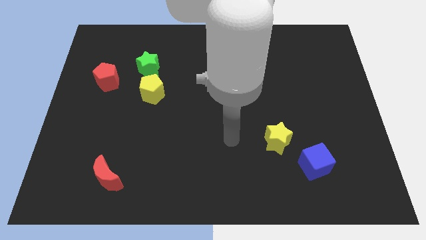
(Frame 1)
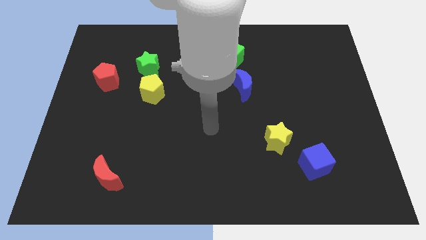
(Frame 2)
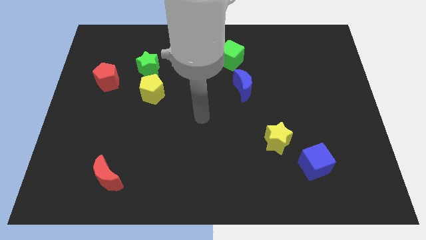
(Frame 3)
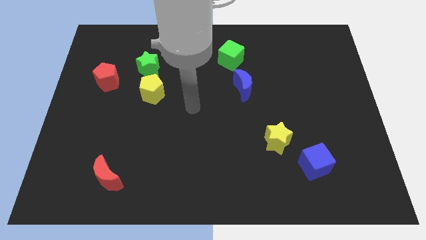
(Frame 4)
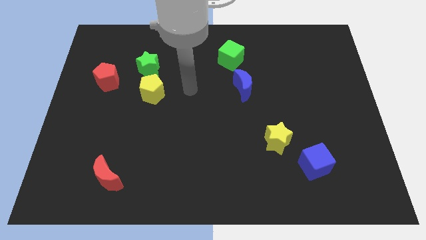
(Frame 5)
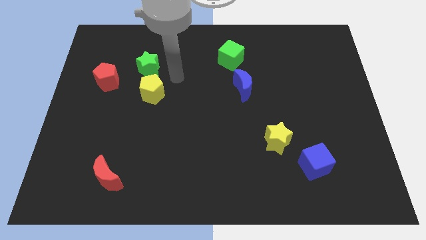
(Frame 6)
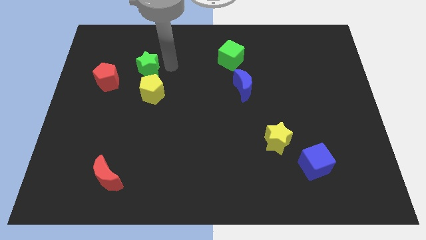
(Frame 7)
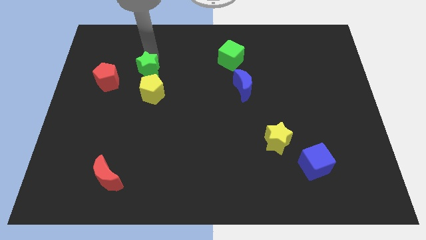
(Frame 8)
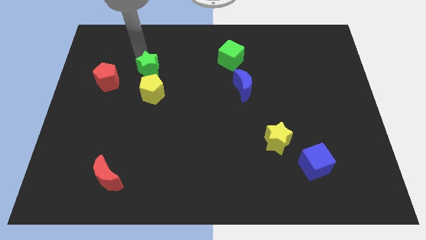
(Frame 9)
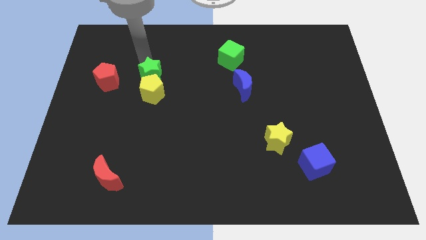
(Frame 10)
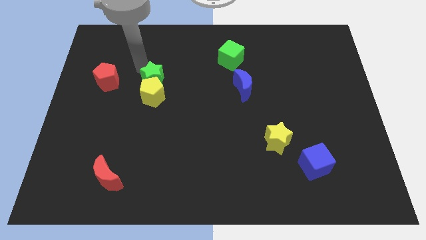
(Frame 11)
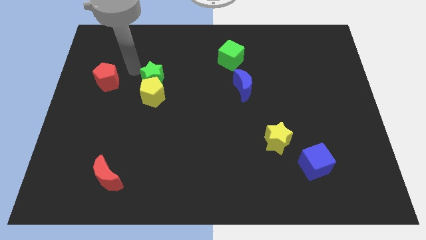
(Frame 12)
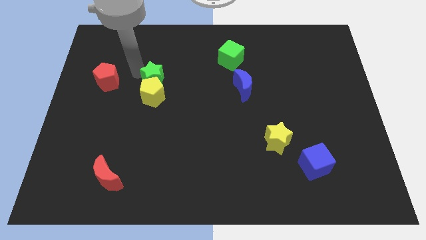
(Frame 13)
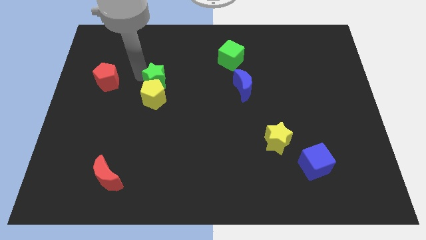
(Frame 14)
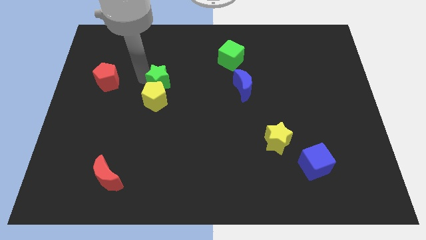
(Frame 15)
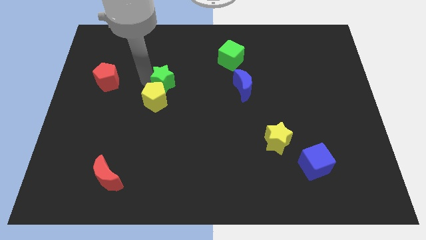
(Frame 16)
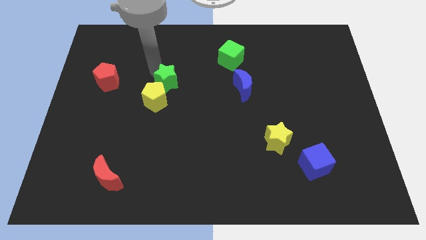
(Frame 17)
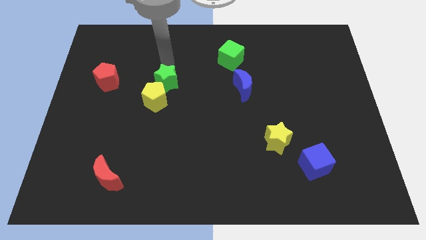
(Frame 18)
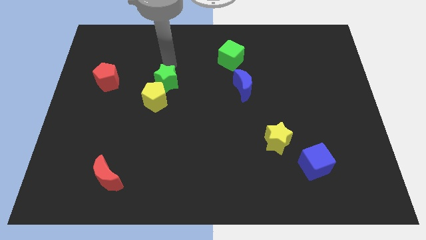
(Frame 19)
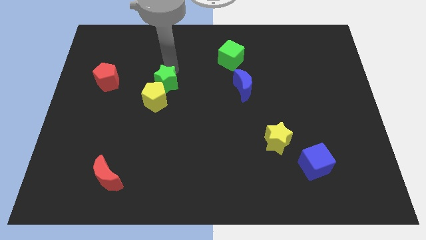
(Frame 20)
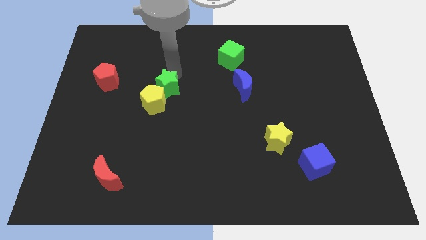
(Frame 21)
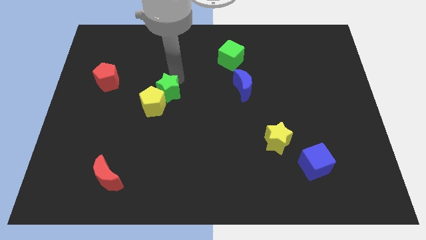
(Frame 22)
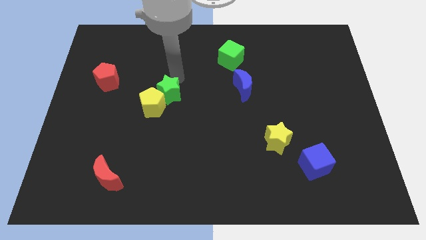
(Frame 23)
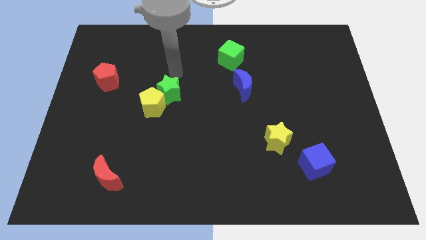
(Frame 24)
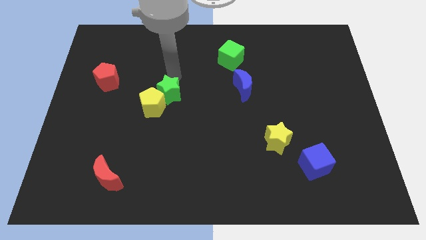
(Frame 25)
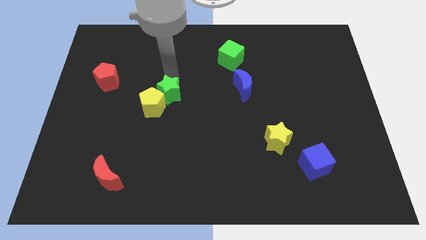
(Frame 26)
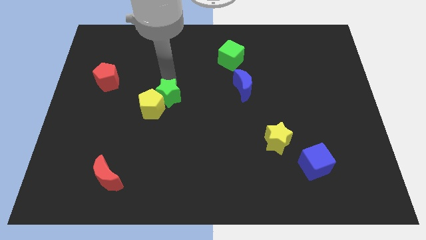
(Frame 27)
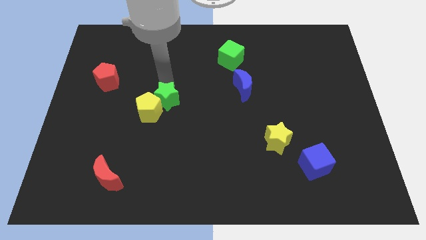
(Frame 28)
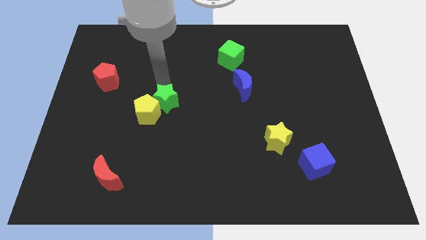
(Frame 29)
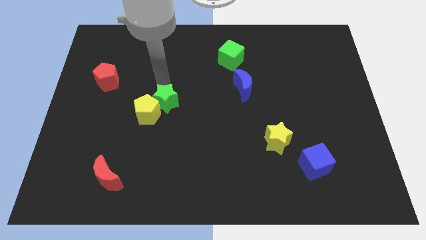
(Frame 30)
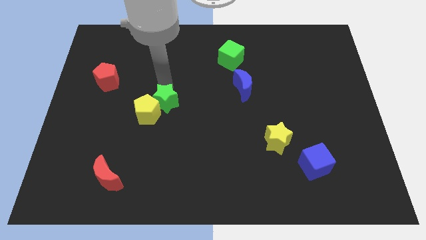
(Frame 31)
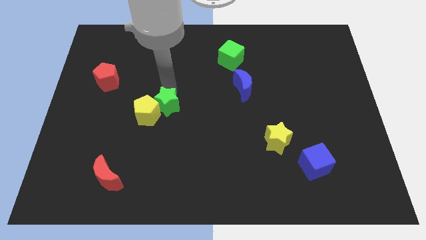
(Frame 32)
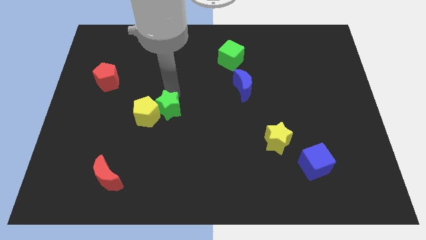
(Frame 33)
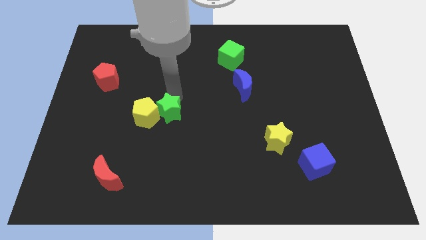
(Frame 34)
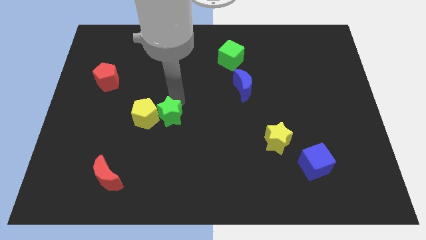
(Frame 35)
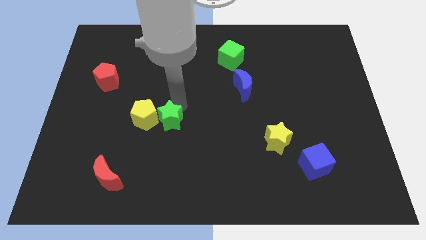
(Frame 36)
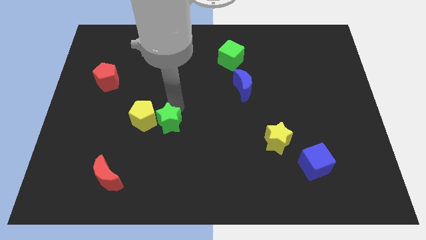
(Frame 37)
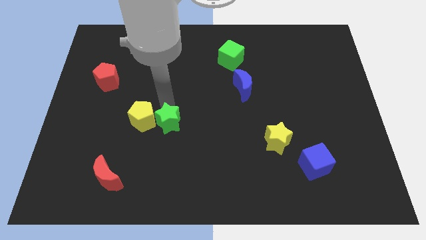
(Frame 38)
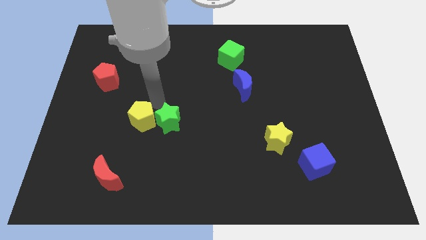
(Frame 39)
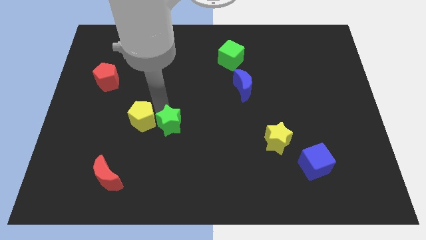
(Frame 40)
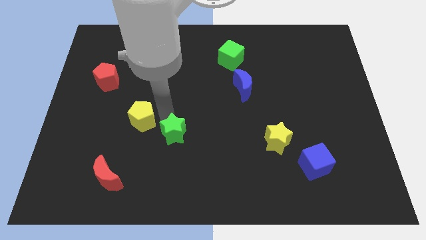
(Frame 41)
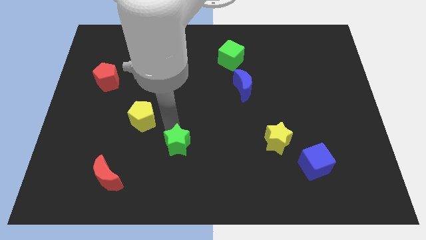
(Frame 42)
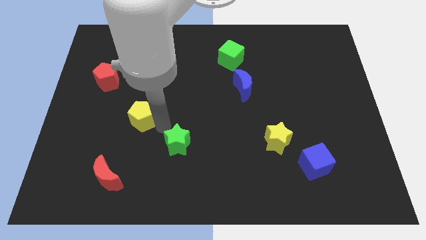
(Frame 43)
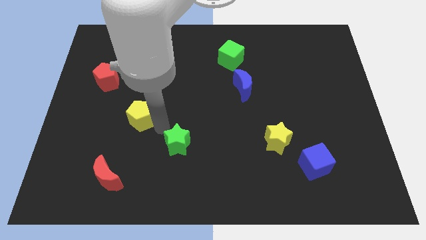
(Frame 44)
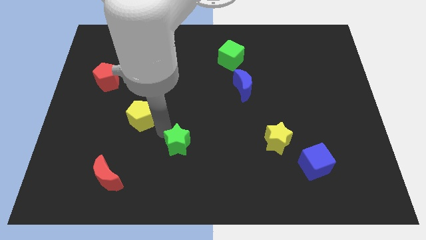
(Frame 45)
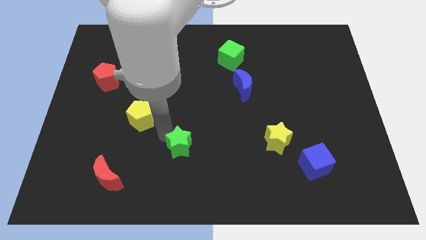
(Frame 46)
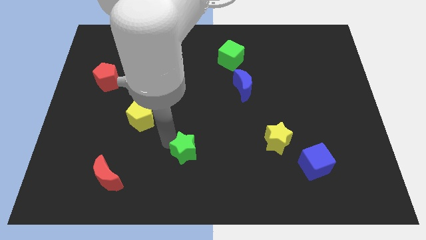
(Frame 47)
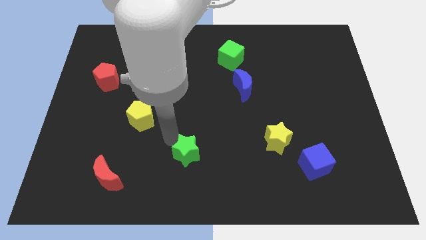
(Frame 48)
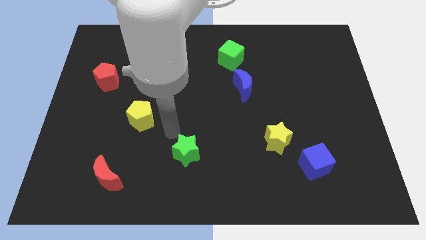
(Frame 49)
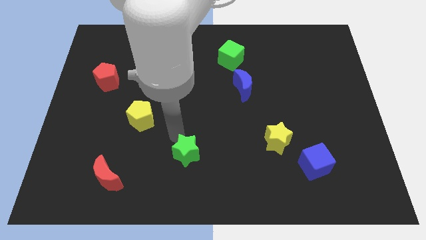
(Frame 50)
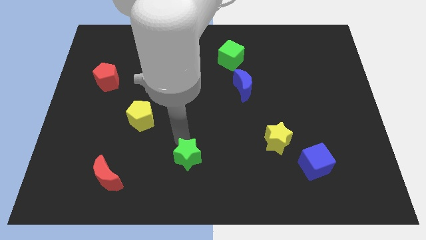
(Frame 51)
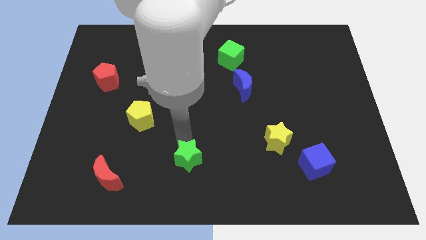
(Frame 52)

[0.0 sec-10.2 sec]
push the green star to the bottom side

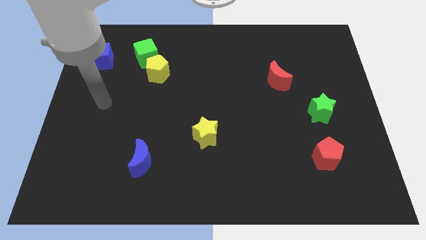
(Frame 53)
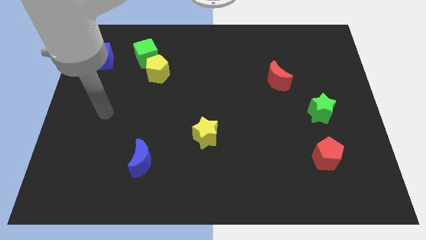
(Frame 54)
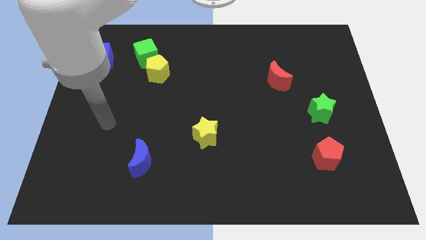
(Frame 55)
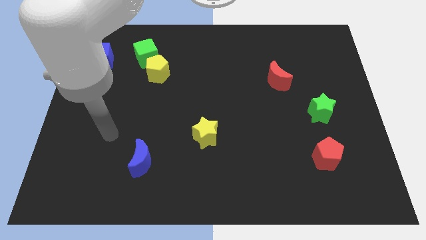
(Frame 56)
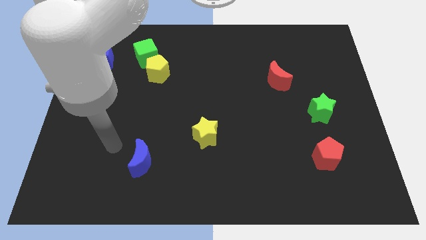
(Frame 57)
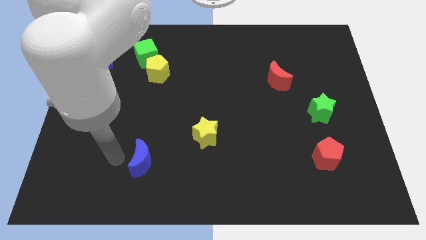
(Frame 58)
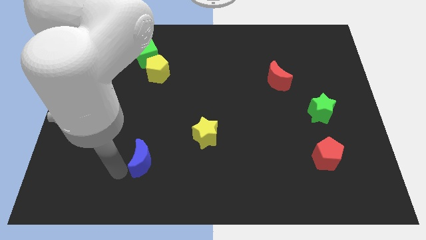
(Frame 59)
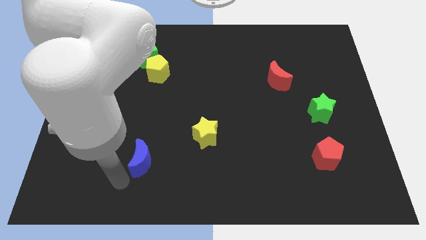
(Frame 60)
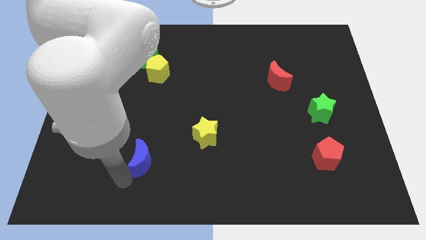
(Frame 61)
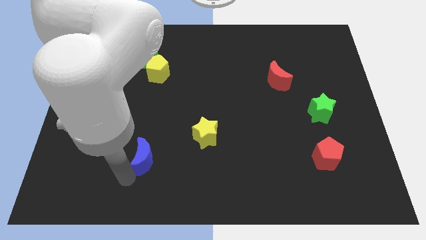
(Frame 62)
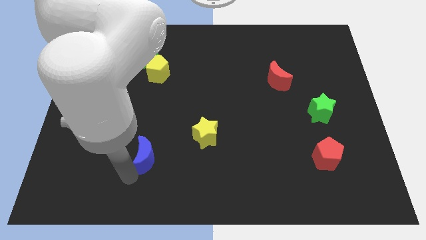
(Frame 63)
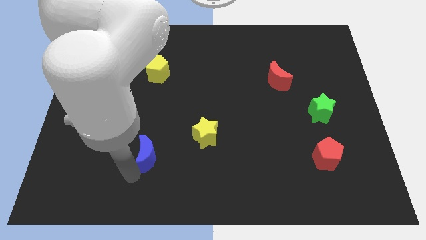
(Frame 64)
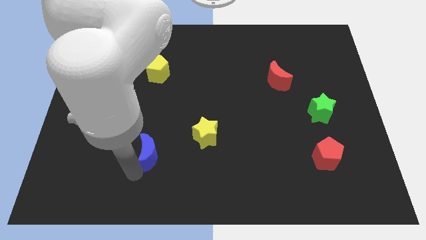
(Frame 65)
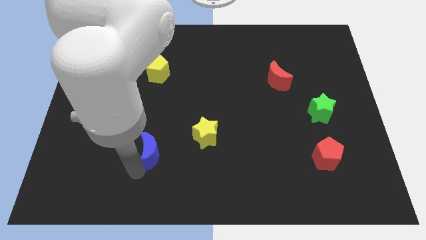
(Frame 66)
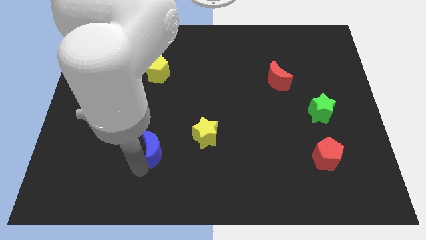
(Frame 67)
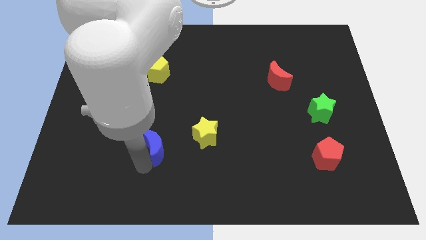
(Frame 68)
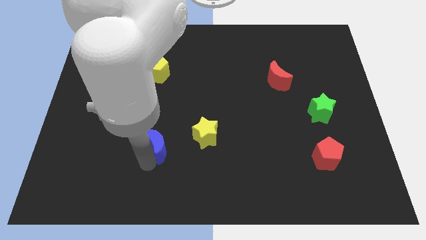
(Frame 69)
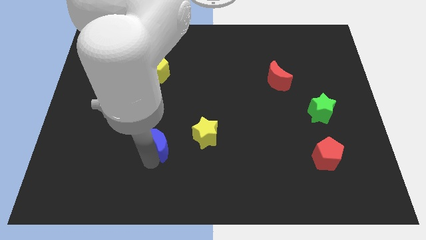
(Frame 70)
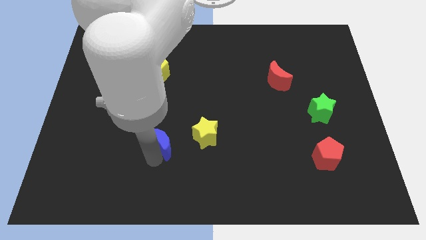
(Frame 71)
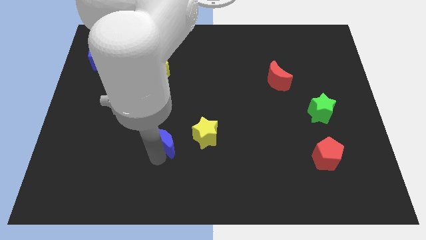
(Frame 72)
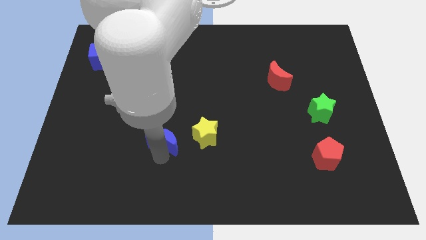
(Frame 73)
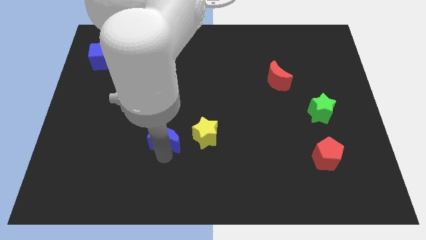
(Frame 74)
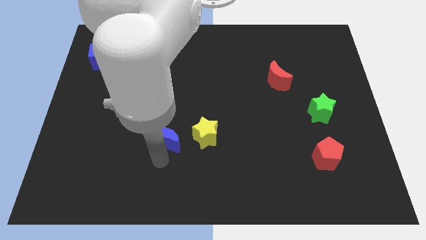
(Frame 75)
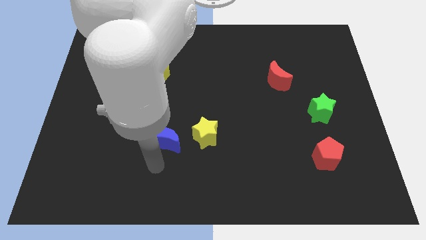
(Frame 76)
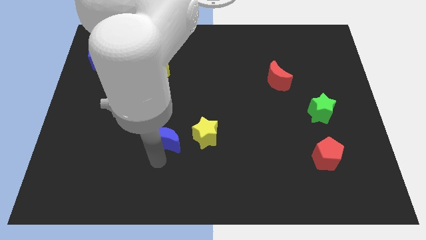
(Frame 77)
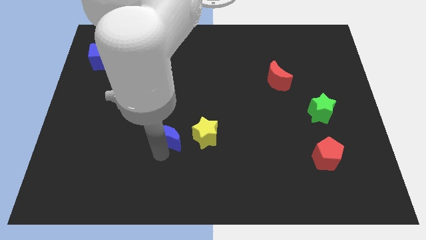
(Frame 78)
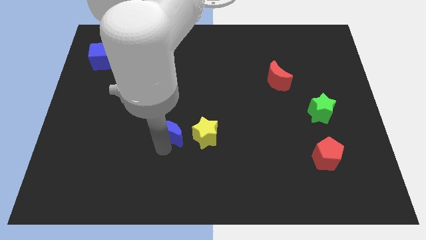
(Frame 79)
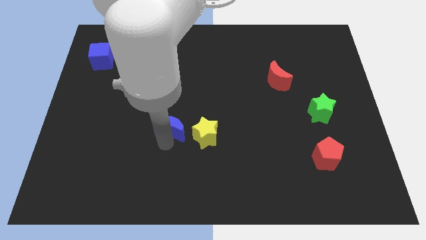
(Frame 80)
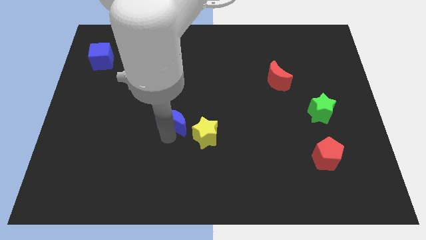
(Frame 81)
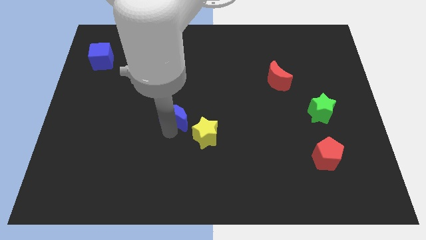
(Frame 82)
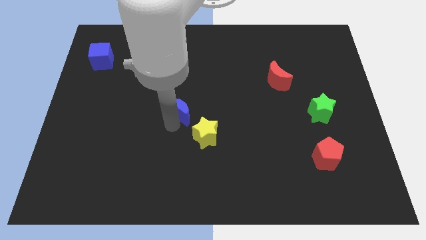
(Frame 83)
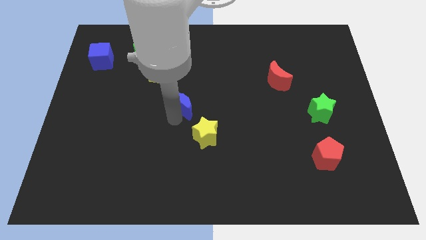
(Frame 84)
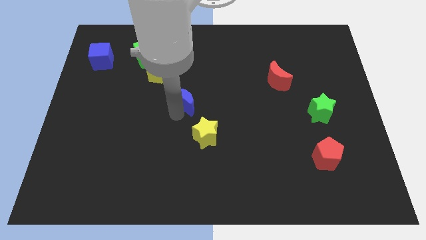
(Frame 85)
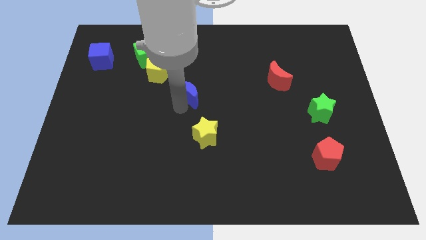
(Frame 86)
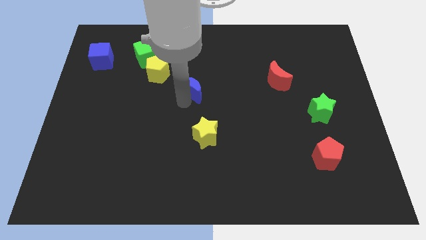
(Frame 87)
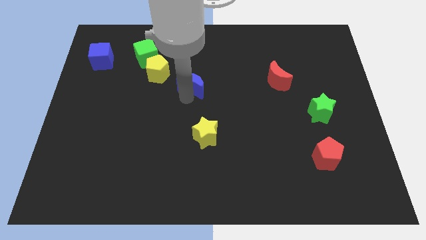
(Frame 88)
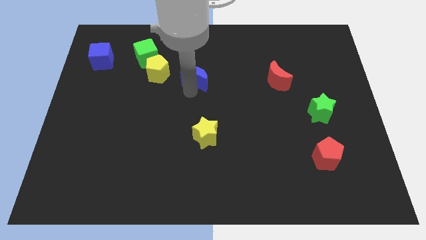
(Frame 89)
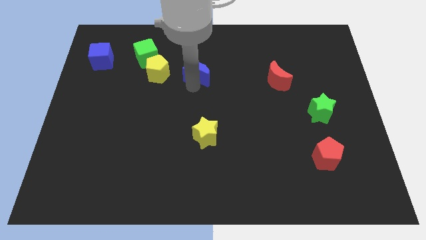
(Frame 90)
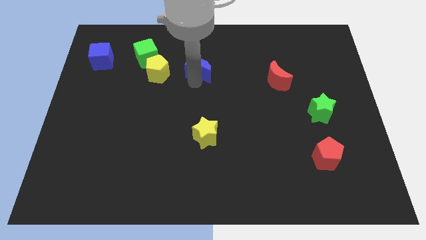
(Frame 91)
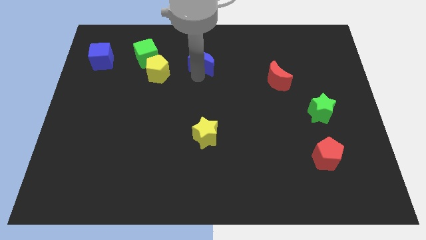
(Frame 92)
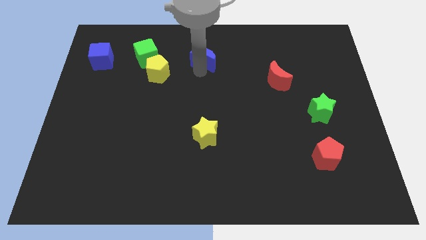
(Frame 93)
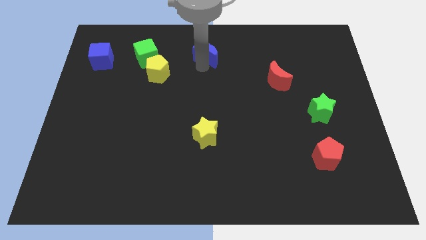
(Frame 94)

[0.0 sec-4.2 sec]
move the blue moon to the top
